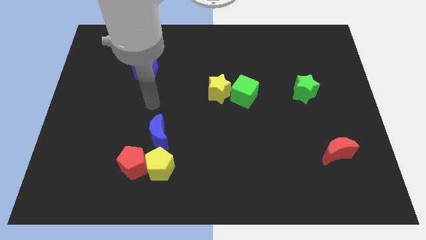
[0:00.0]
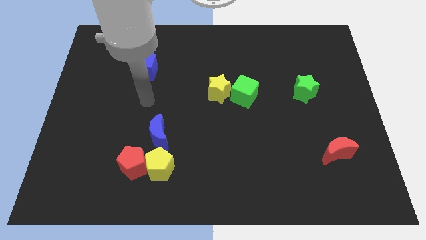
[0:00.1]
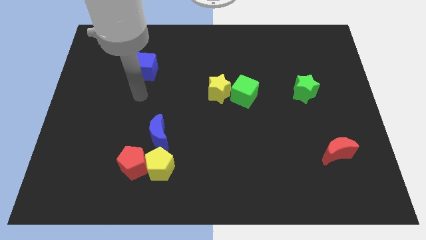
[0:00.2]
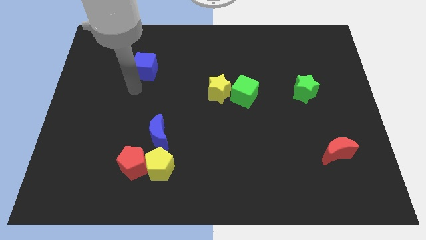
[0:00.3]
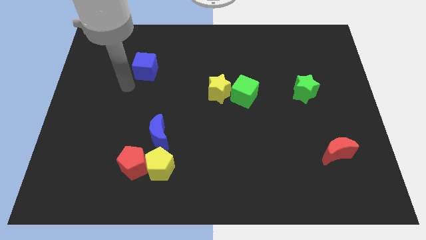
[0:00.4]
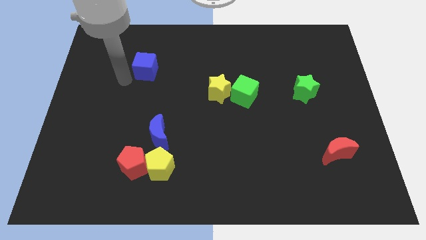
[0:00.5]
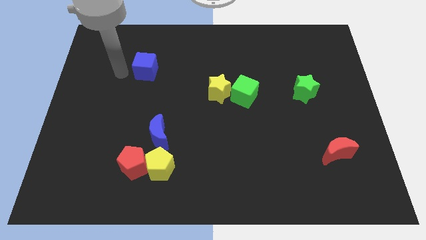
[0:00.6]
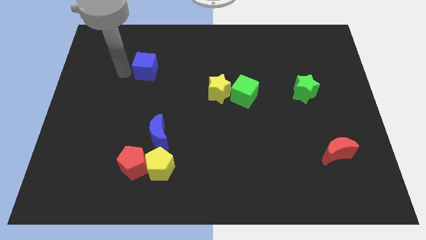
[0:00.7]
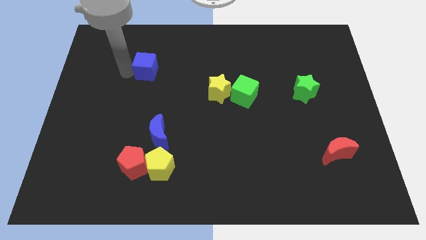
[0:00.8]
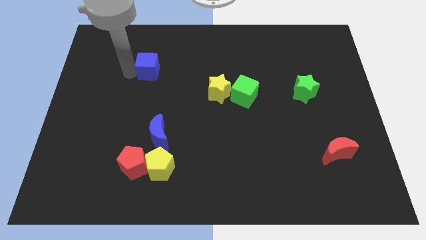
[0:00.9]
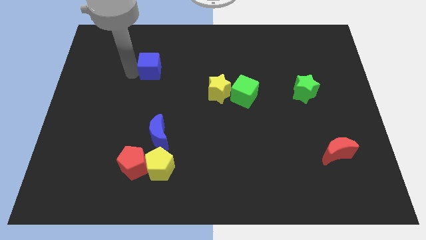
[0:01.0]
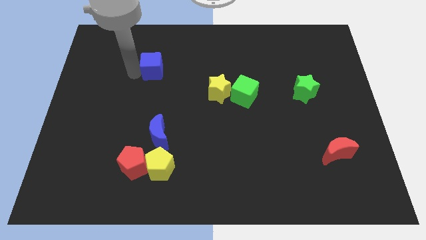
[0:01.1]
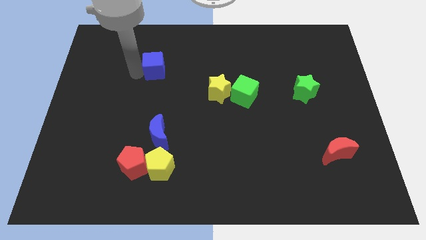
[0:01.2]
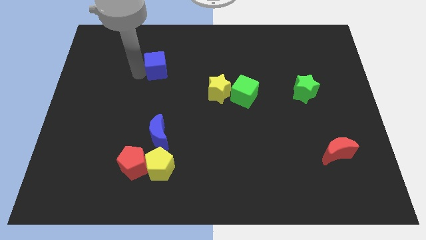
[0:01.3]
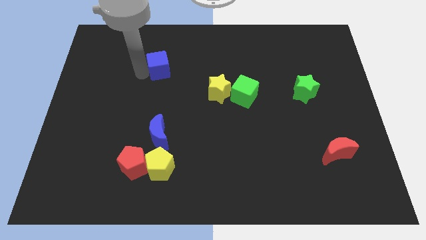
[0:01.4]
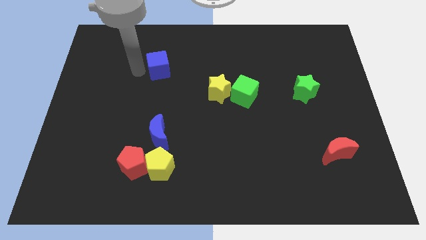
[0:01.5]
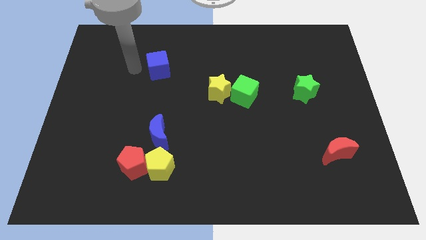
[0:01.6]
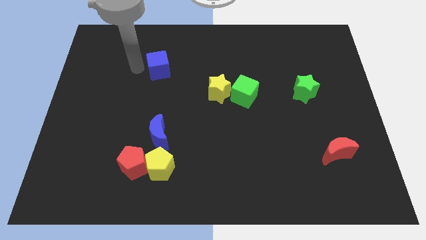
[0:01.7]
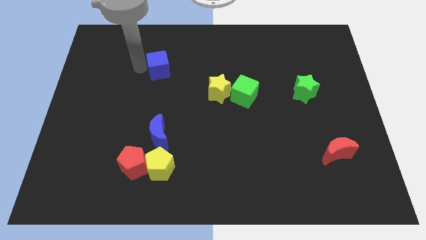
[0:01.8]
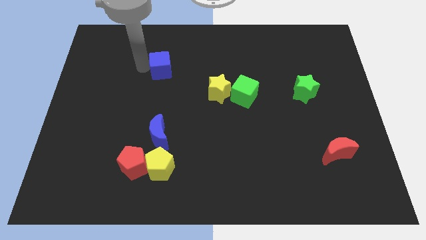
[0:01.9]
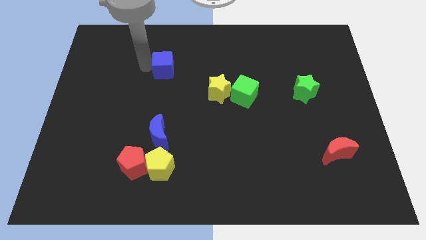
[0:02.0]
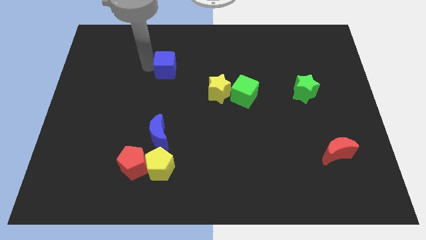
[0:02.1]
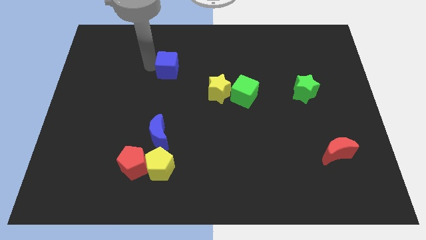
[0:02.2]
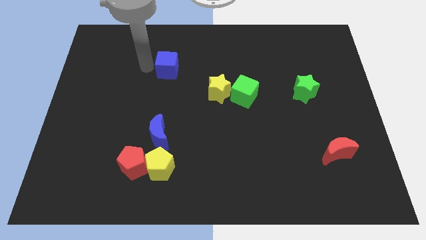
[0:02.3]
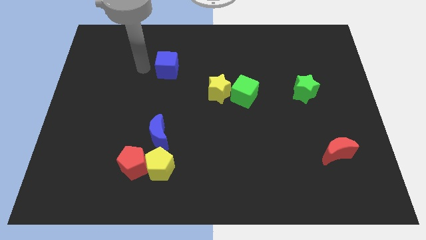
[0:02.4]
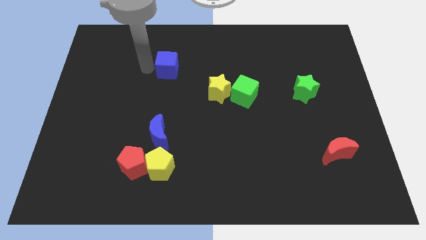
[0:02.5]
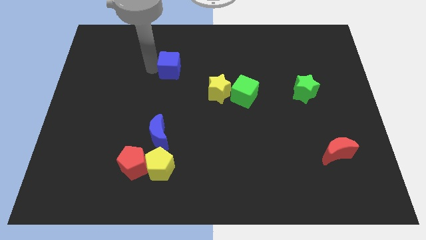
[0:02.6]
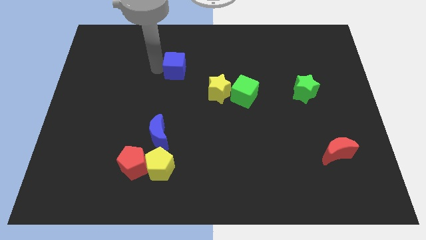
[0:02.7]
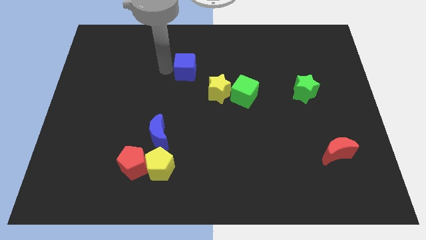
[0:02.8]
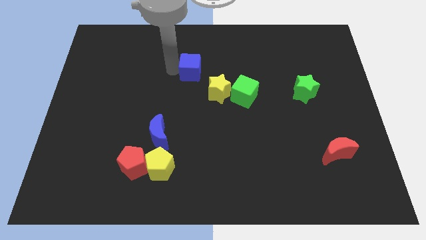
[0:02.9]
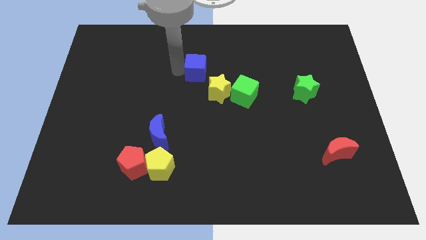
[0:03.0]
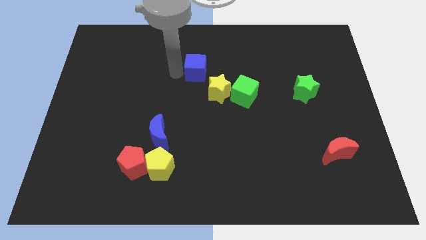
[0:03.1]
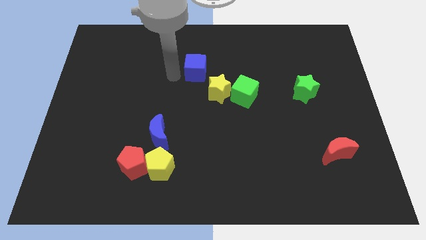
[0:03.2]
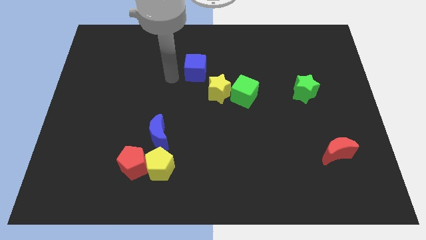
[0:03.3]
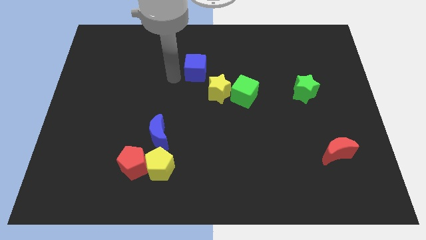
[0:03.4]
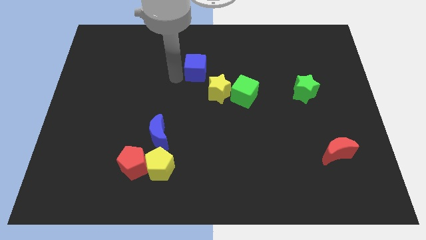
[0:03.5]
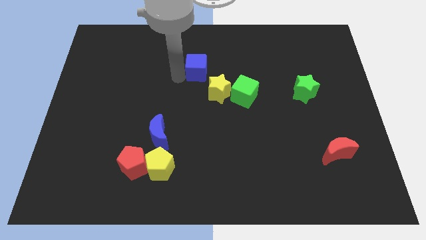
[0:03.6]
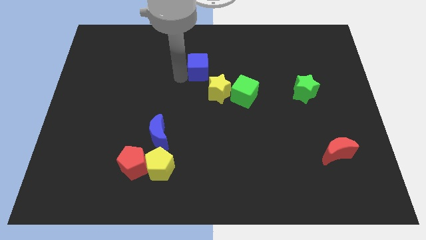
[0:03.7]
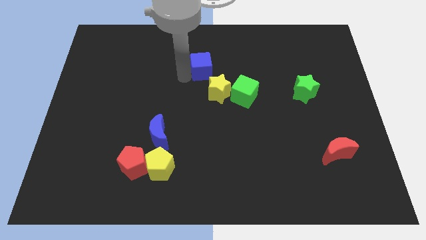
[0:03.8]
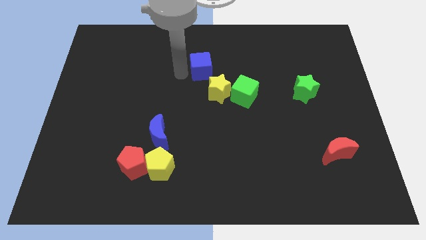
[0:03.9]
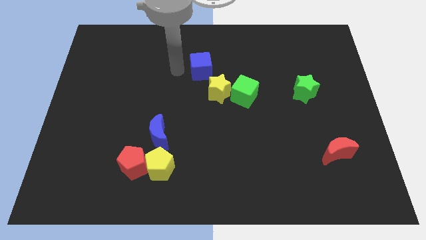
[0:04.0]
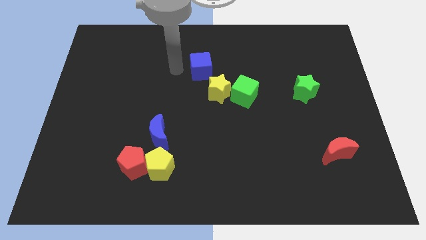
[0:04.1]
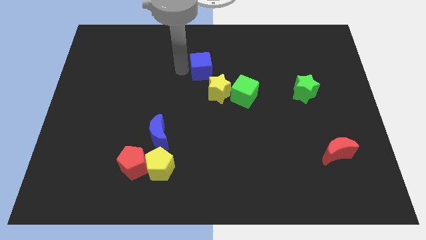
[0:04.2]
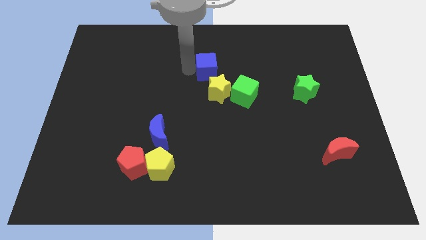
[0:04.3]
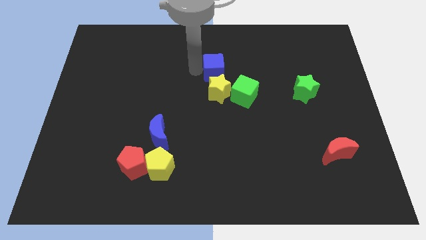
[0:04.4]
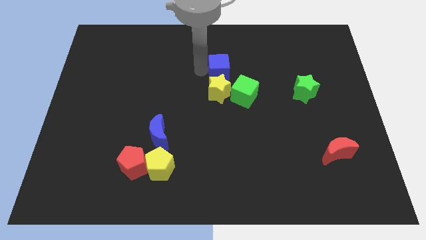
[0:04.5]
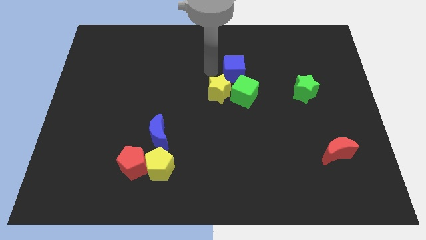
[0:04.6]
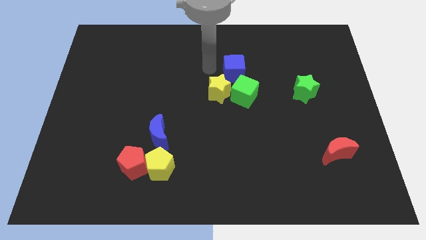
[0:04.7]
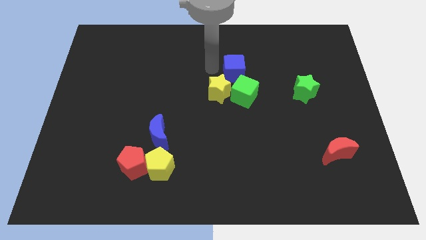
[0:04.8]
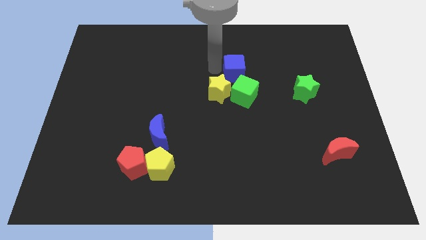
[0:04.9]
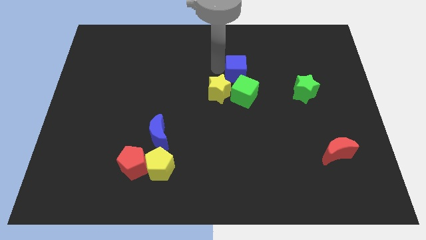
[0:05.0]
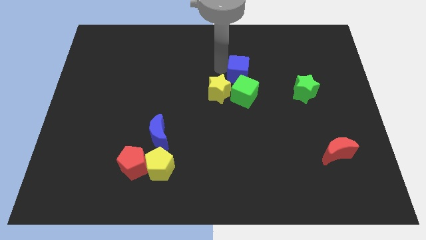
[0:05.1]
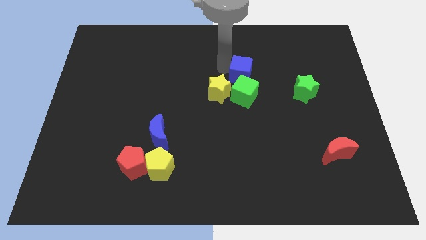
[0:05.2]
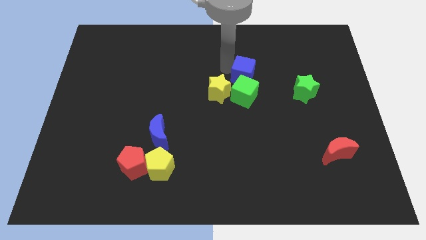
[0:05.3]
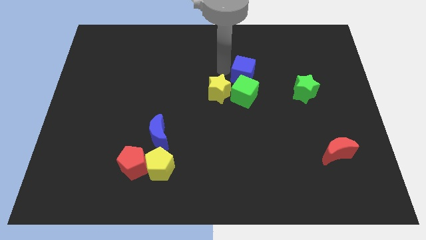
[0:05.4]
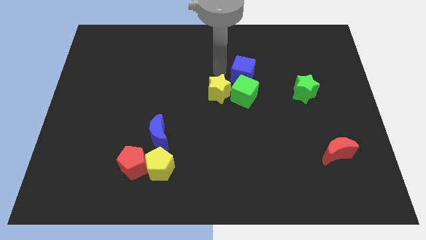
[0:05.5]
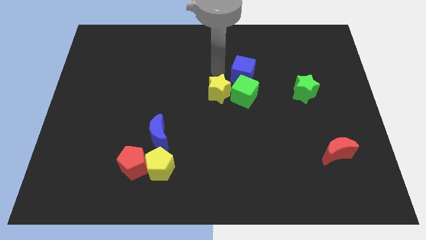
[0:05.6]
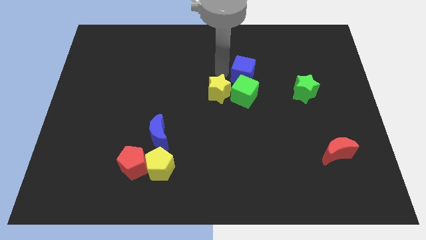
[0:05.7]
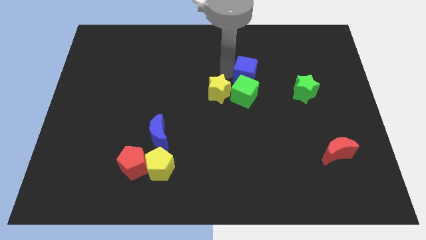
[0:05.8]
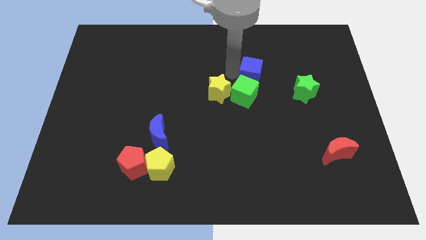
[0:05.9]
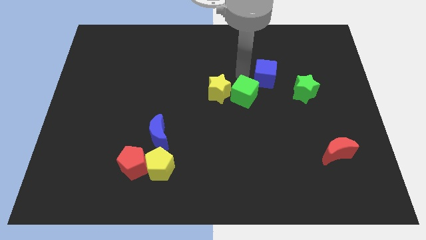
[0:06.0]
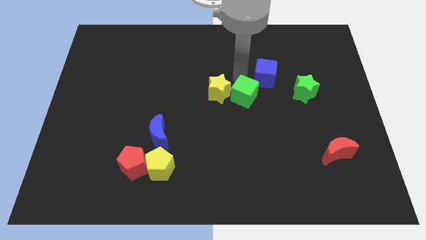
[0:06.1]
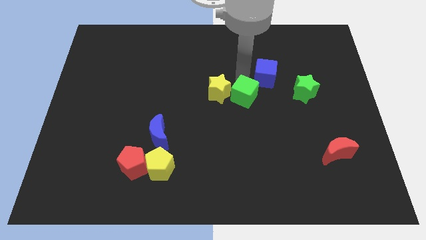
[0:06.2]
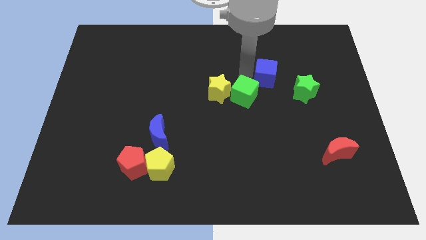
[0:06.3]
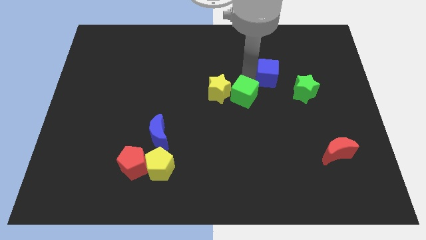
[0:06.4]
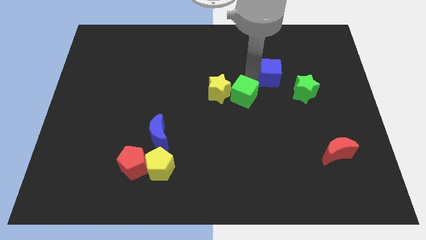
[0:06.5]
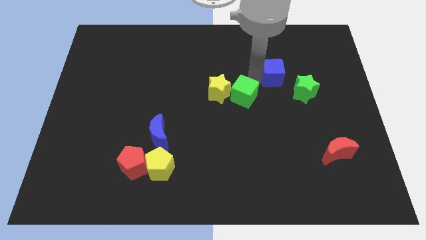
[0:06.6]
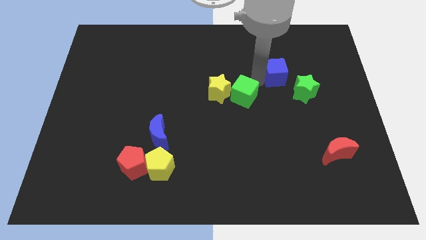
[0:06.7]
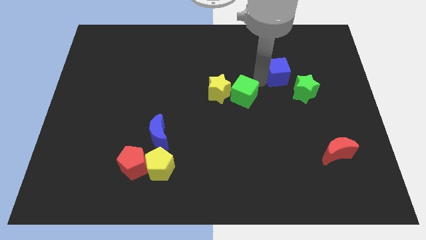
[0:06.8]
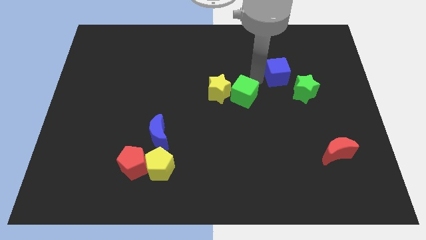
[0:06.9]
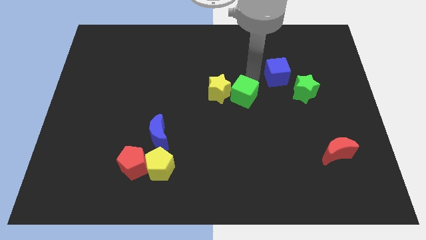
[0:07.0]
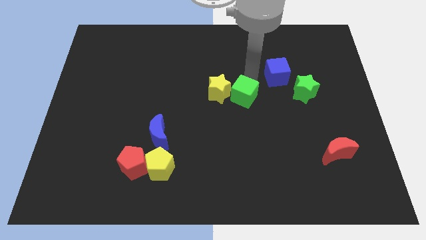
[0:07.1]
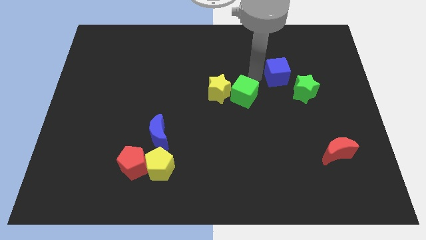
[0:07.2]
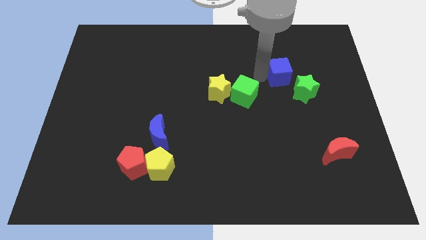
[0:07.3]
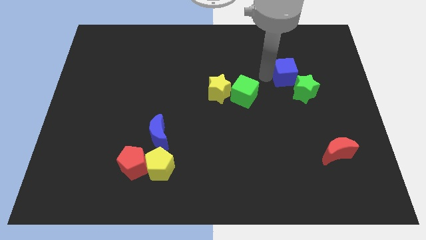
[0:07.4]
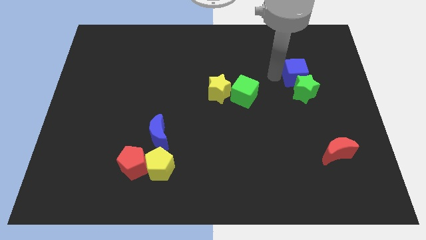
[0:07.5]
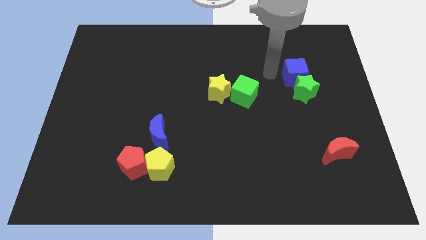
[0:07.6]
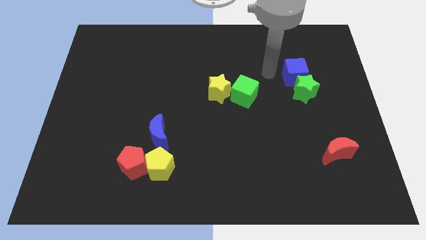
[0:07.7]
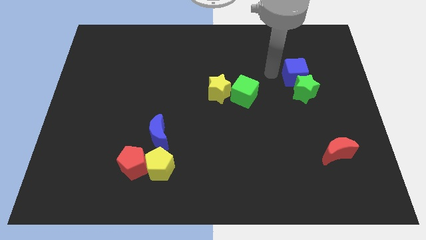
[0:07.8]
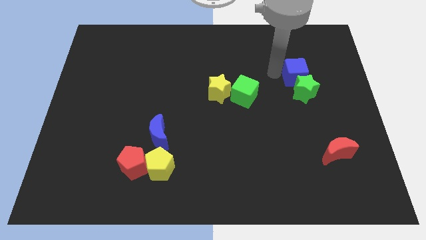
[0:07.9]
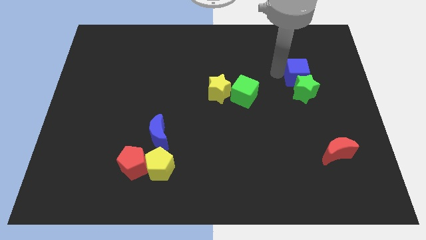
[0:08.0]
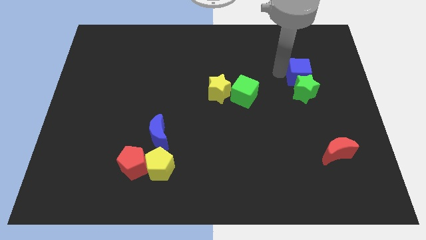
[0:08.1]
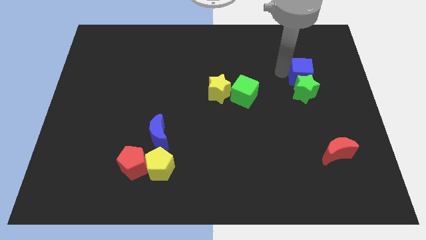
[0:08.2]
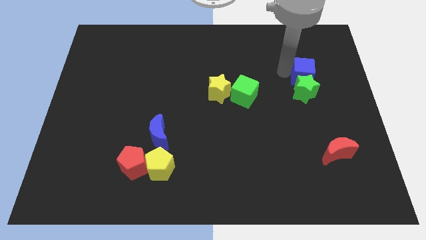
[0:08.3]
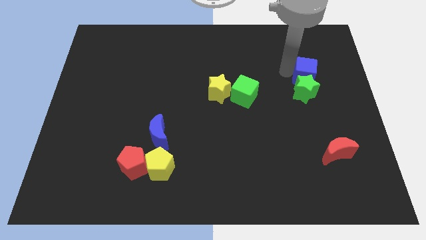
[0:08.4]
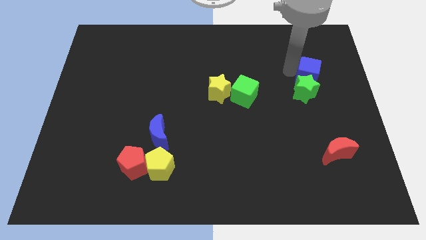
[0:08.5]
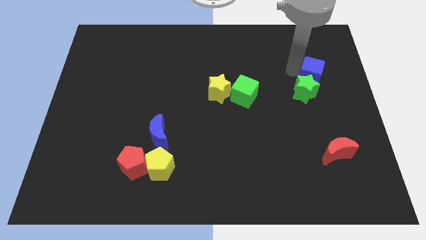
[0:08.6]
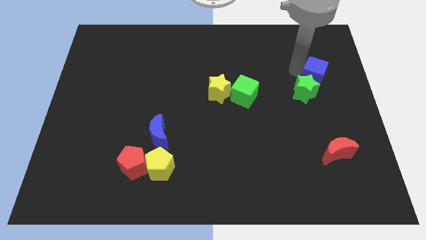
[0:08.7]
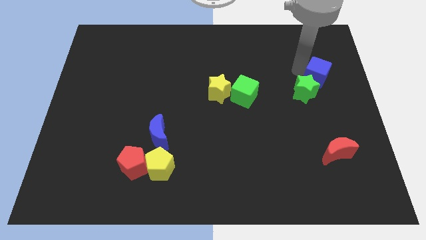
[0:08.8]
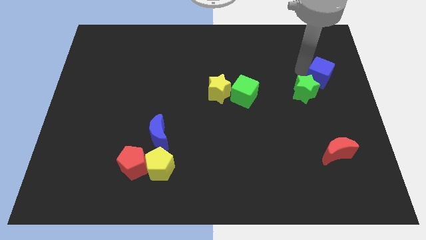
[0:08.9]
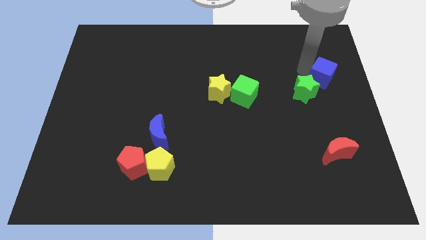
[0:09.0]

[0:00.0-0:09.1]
push the blue cube to the right side of the board
